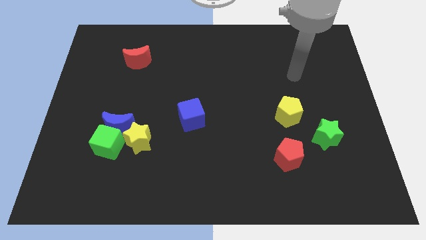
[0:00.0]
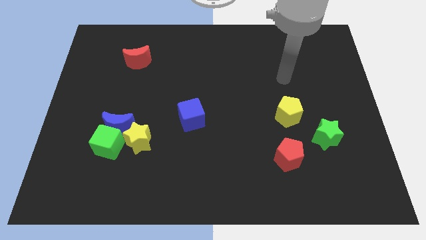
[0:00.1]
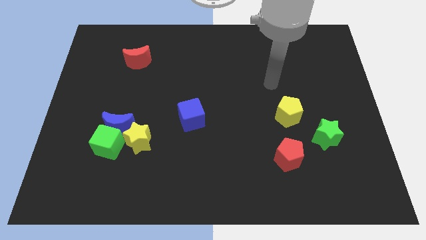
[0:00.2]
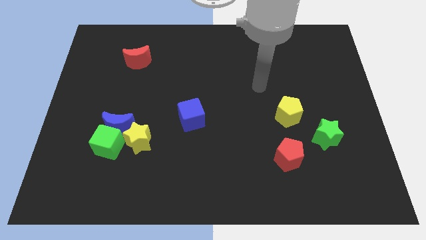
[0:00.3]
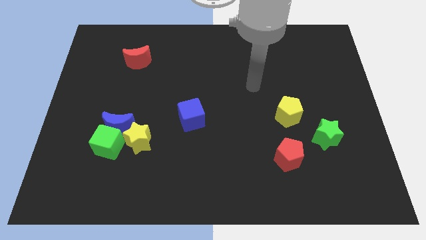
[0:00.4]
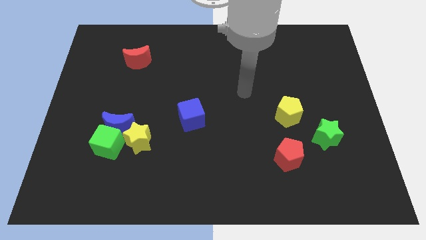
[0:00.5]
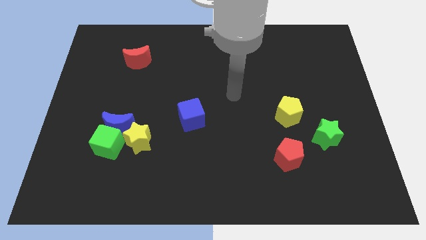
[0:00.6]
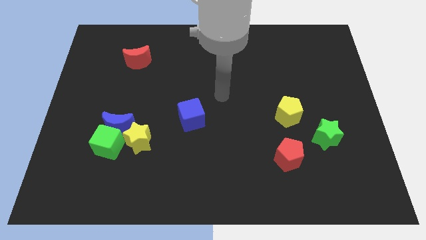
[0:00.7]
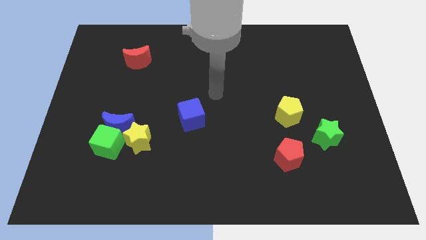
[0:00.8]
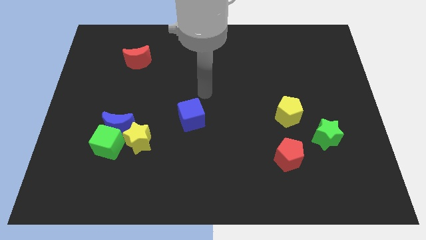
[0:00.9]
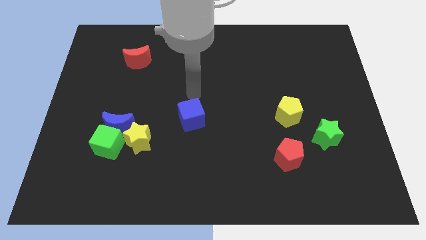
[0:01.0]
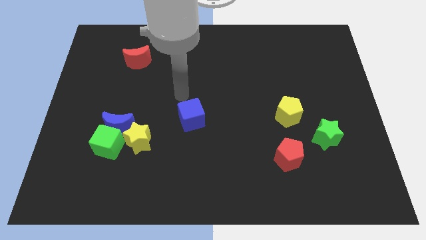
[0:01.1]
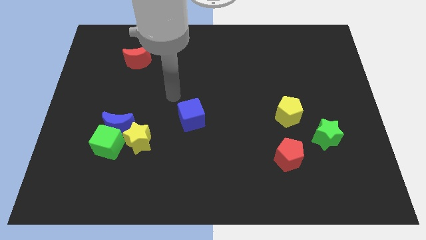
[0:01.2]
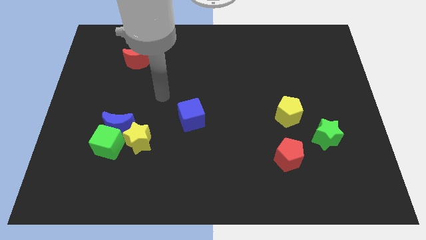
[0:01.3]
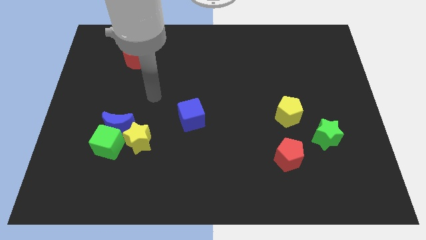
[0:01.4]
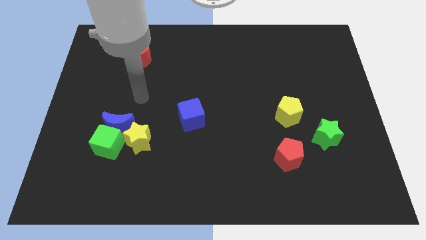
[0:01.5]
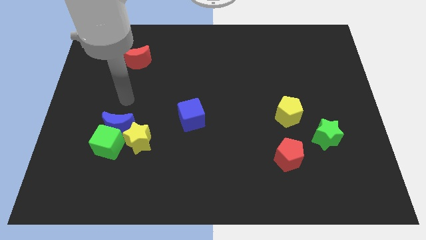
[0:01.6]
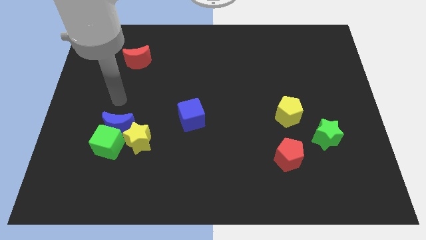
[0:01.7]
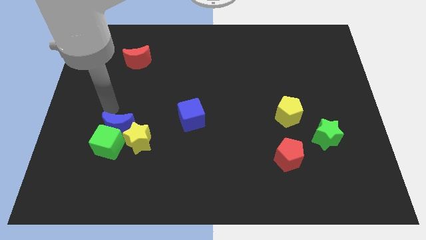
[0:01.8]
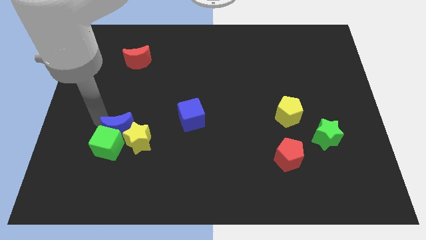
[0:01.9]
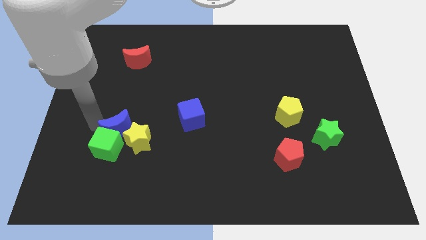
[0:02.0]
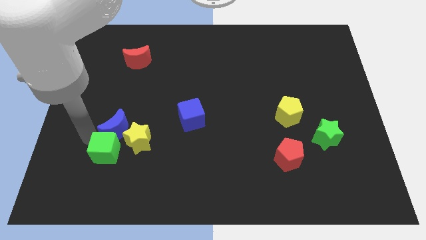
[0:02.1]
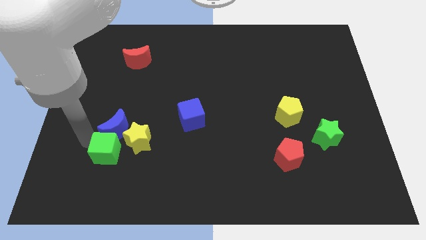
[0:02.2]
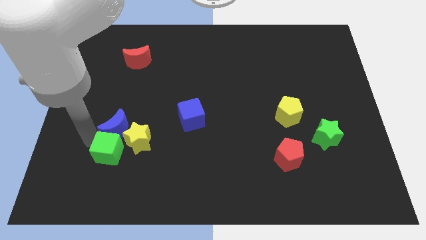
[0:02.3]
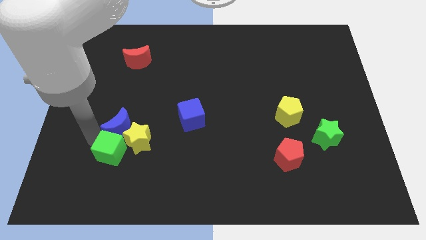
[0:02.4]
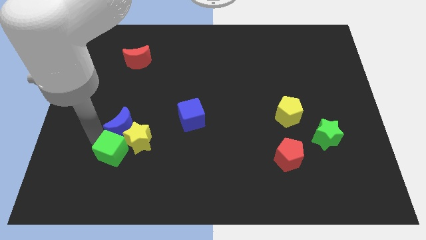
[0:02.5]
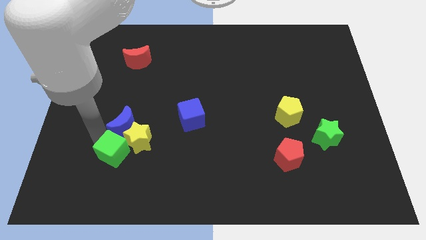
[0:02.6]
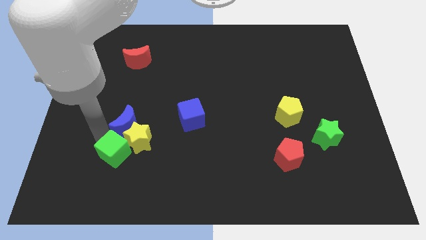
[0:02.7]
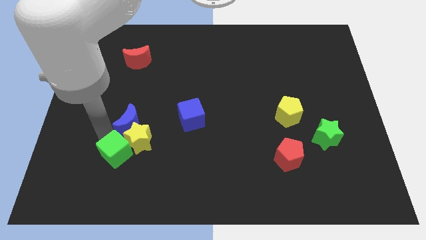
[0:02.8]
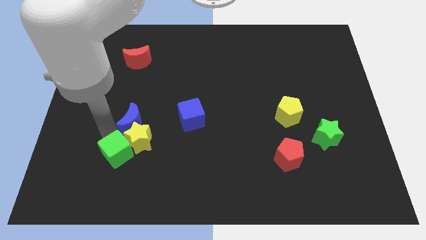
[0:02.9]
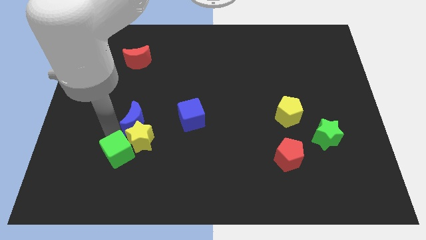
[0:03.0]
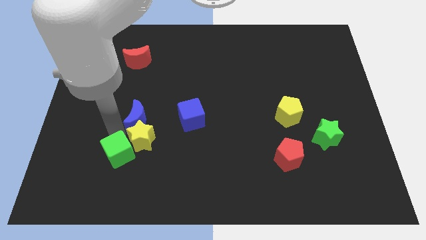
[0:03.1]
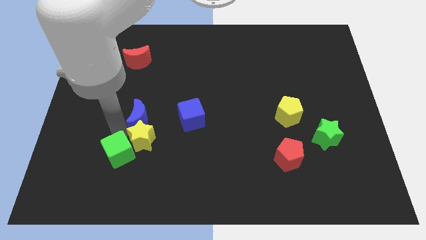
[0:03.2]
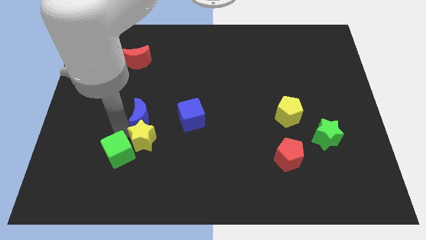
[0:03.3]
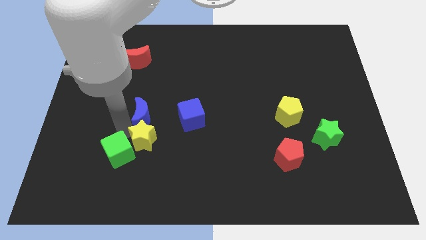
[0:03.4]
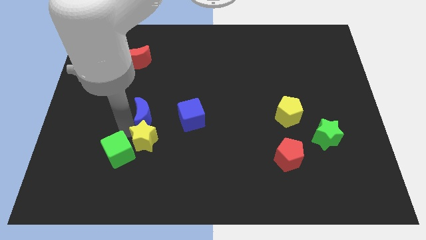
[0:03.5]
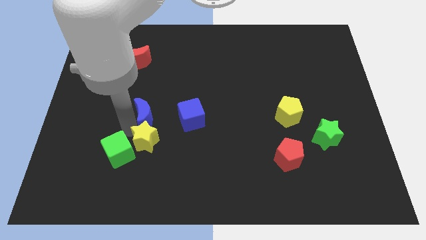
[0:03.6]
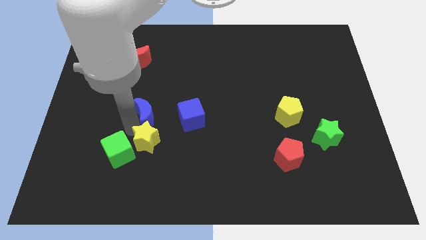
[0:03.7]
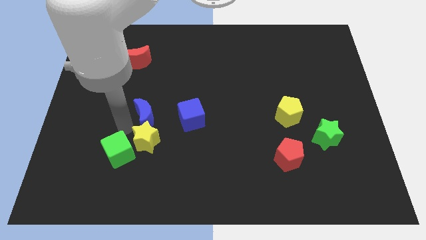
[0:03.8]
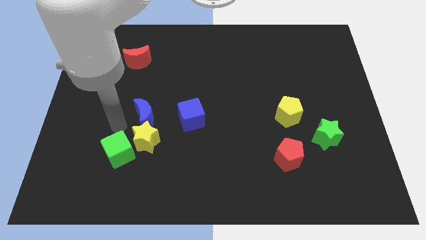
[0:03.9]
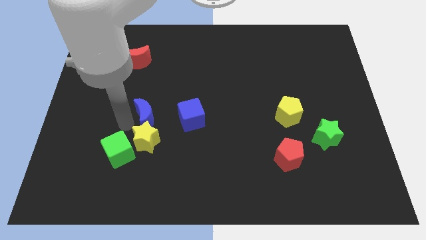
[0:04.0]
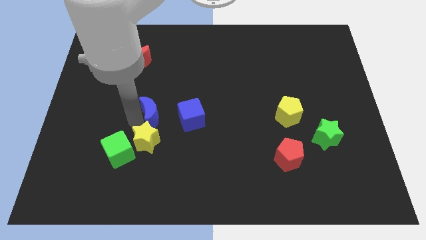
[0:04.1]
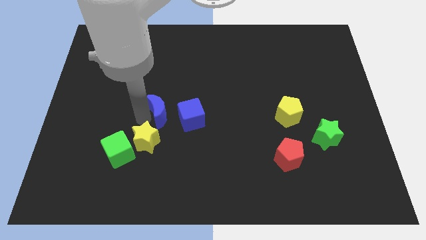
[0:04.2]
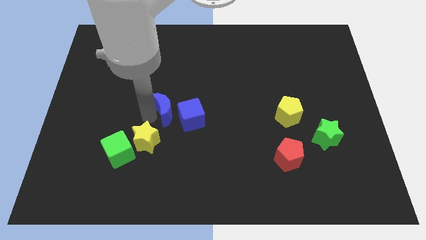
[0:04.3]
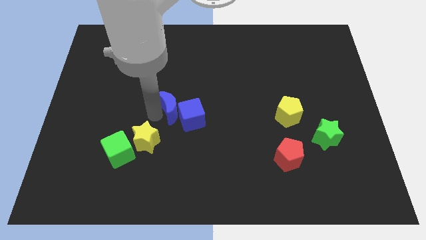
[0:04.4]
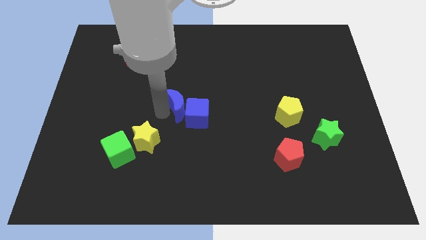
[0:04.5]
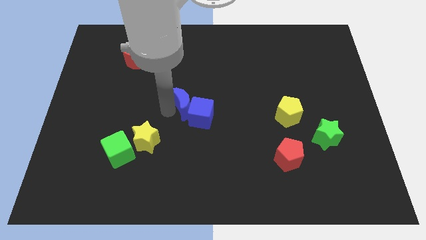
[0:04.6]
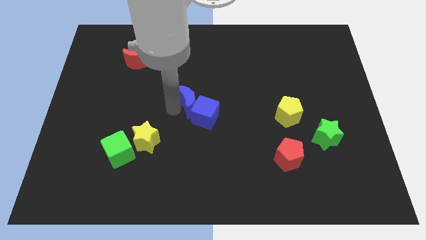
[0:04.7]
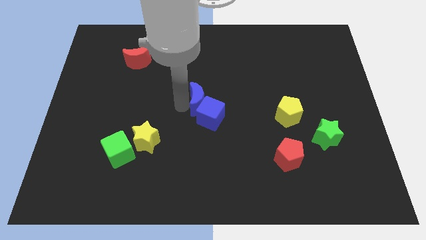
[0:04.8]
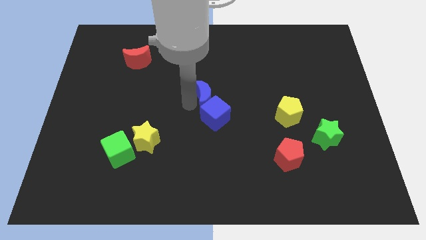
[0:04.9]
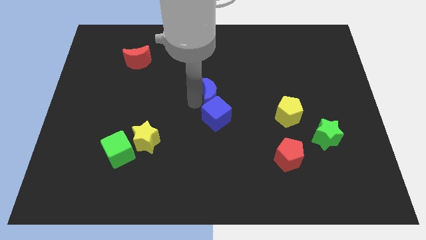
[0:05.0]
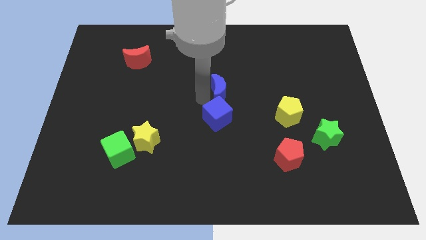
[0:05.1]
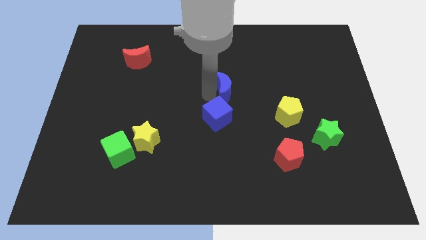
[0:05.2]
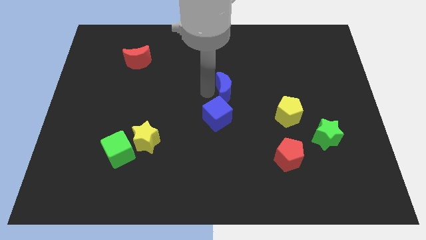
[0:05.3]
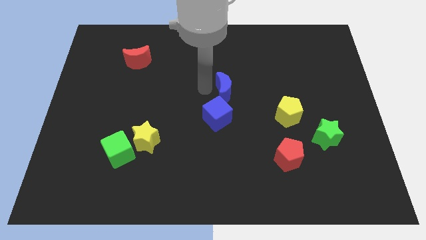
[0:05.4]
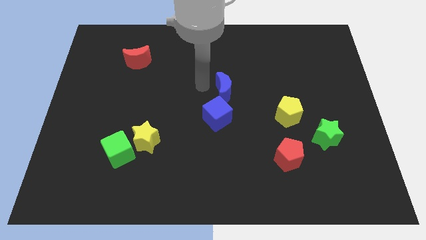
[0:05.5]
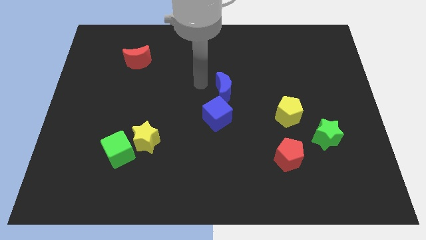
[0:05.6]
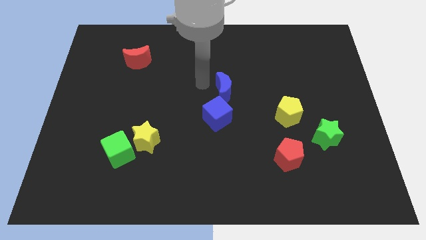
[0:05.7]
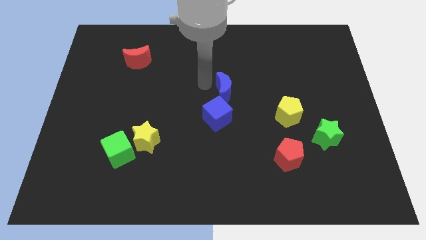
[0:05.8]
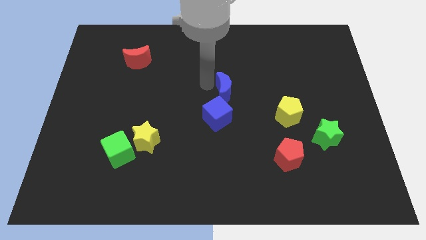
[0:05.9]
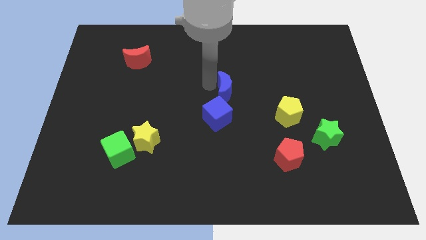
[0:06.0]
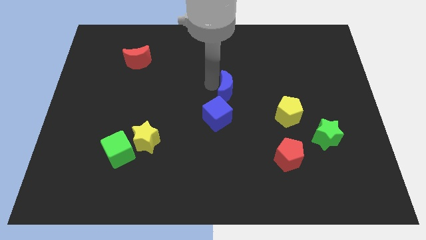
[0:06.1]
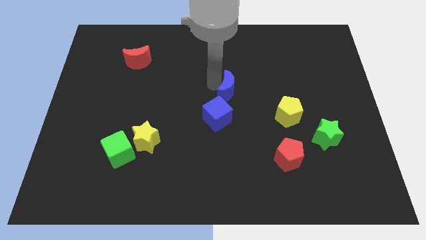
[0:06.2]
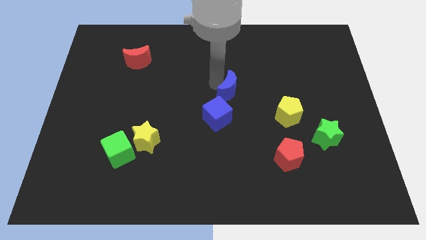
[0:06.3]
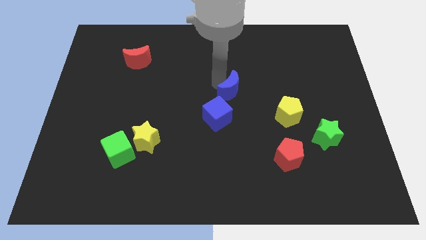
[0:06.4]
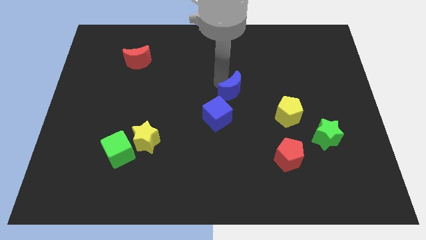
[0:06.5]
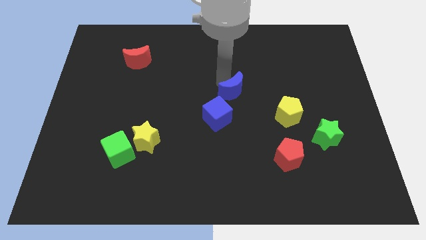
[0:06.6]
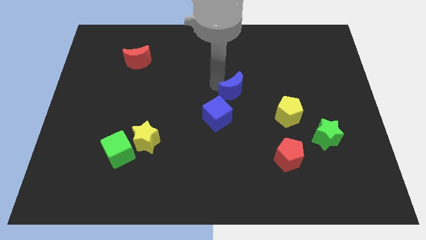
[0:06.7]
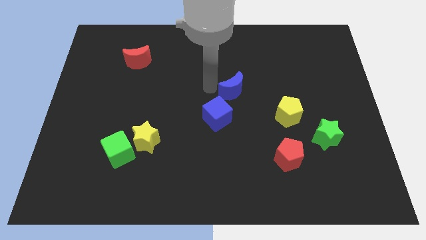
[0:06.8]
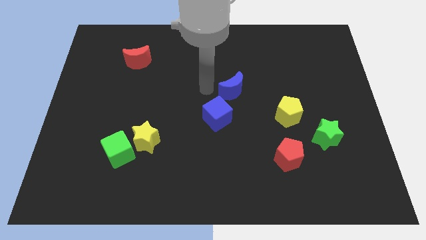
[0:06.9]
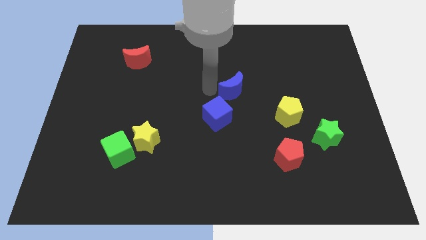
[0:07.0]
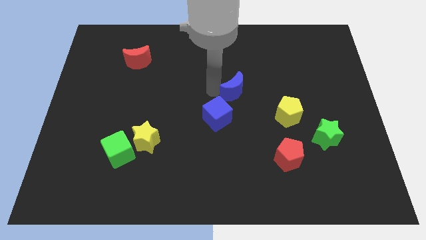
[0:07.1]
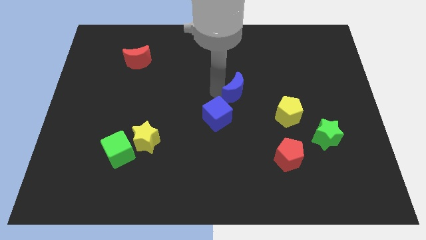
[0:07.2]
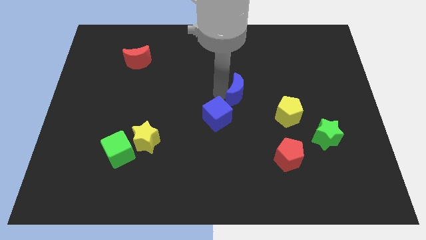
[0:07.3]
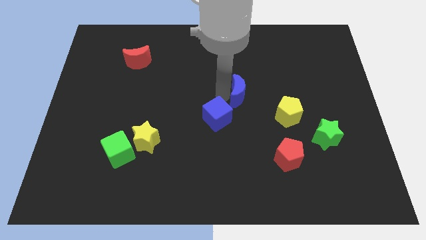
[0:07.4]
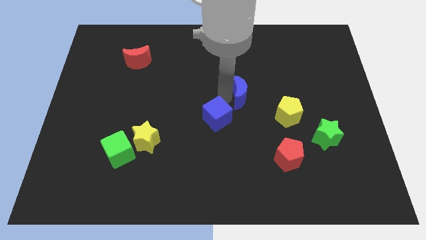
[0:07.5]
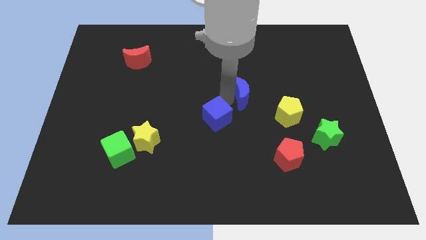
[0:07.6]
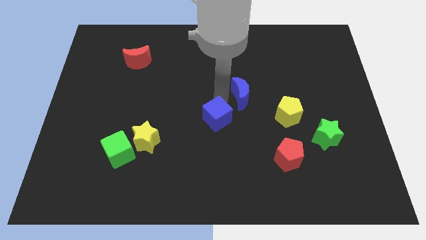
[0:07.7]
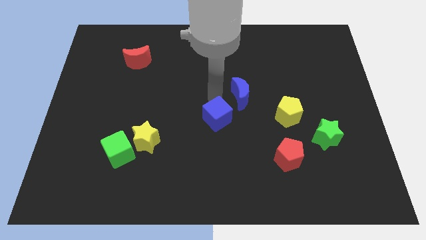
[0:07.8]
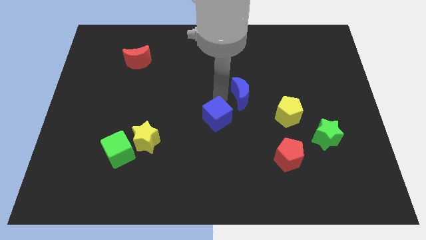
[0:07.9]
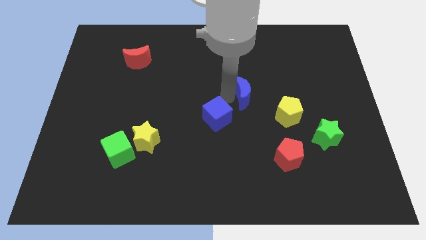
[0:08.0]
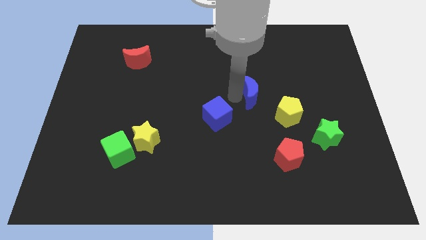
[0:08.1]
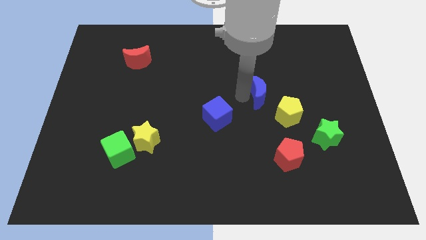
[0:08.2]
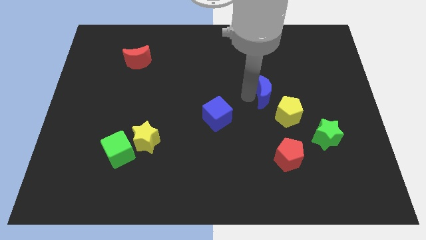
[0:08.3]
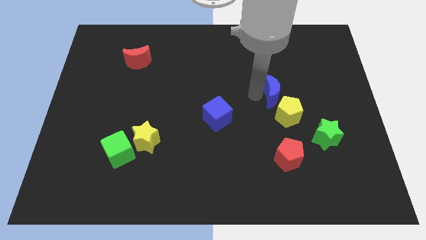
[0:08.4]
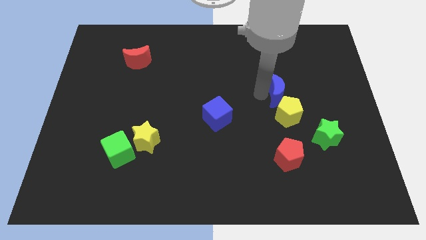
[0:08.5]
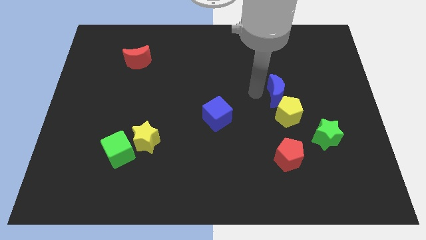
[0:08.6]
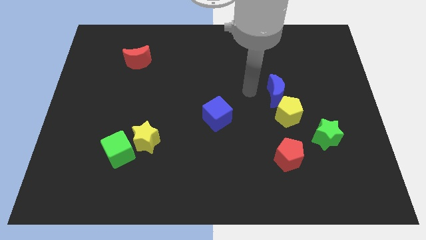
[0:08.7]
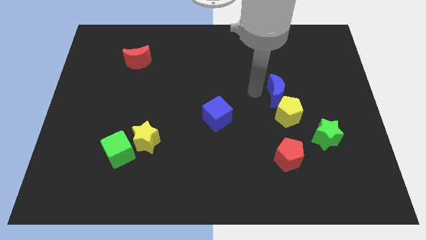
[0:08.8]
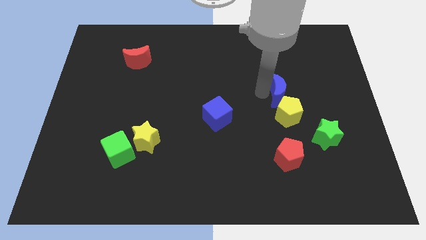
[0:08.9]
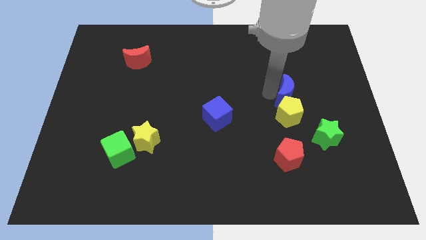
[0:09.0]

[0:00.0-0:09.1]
put the blue moon diagonally up and to the right of the yellow pentagon
